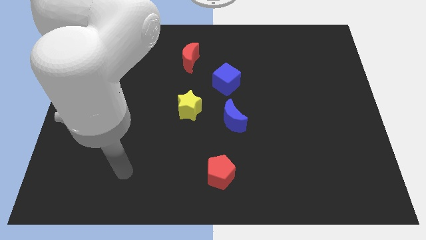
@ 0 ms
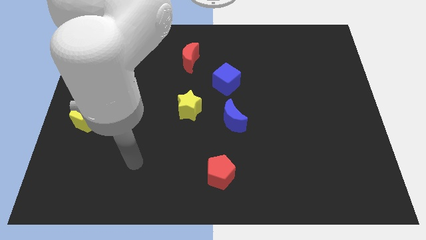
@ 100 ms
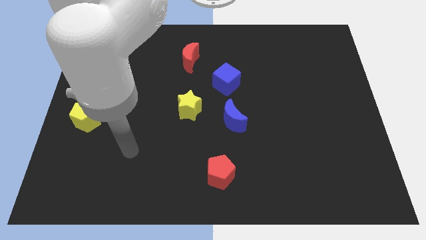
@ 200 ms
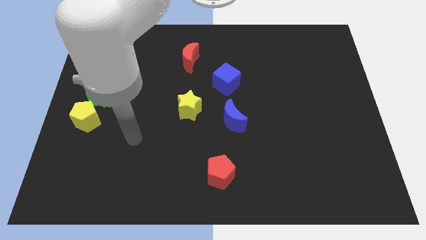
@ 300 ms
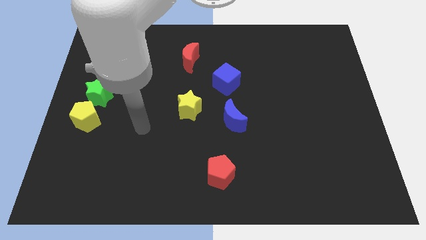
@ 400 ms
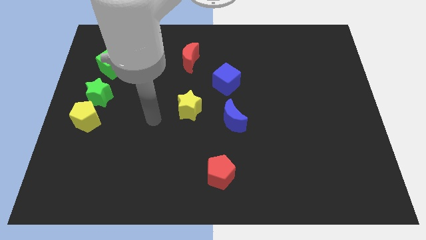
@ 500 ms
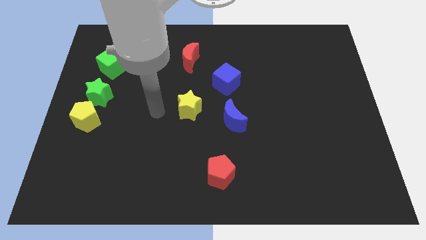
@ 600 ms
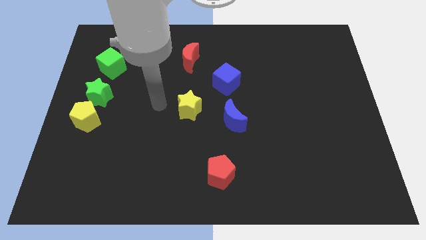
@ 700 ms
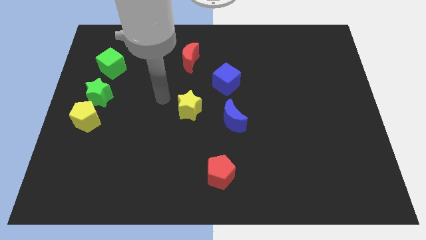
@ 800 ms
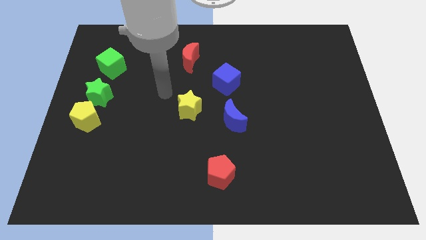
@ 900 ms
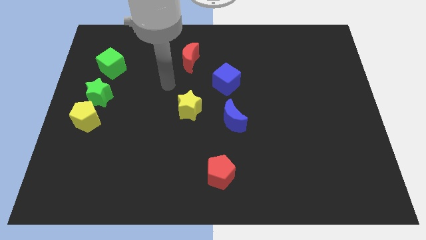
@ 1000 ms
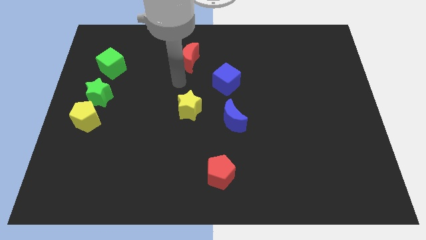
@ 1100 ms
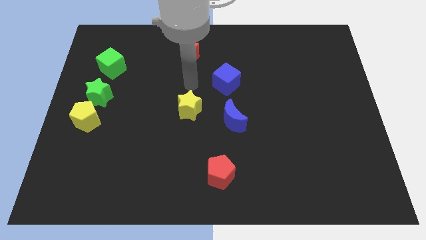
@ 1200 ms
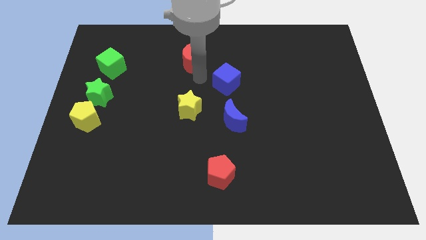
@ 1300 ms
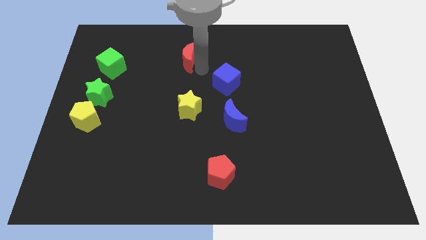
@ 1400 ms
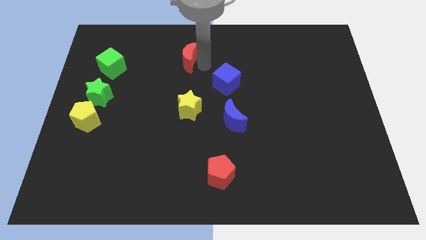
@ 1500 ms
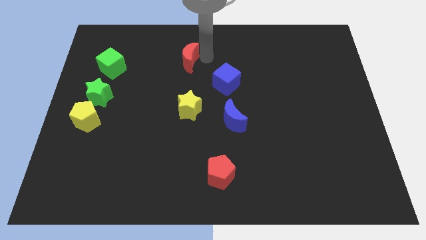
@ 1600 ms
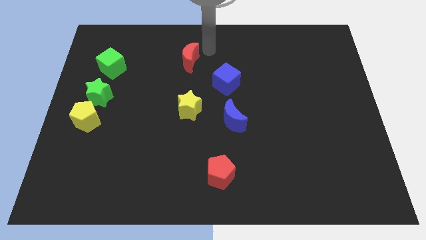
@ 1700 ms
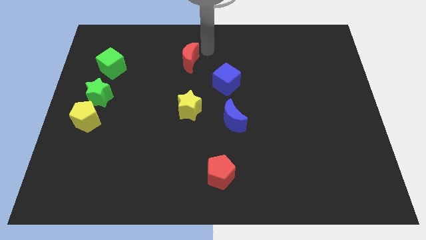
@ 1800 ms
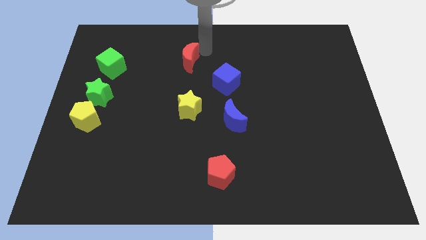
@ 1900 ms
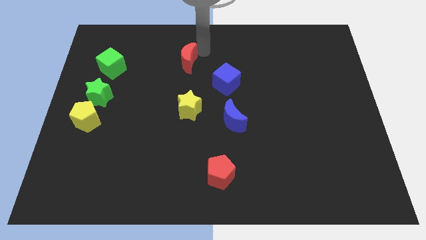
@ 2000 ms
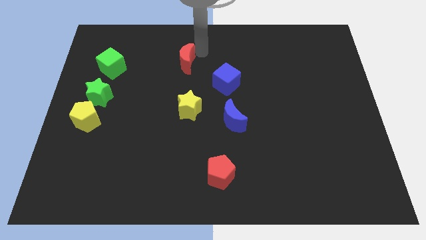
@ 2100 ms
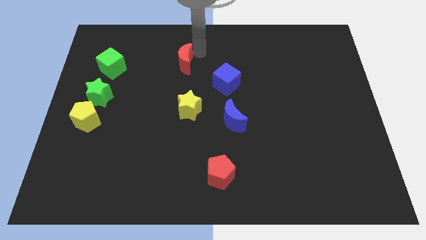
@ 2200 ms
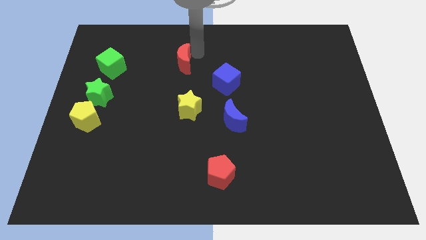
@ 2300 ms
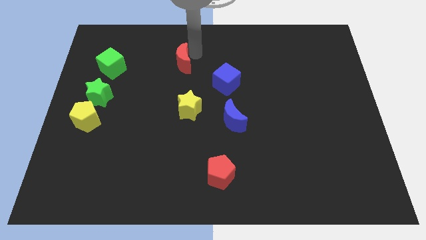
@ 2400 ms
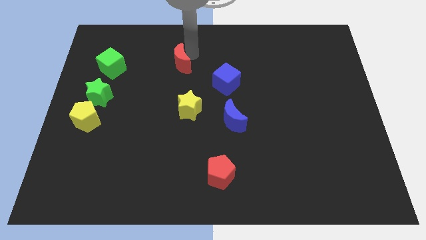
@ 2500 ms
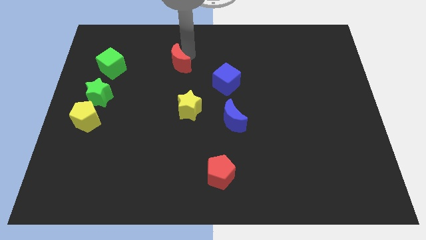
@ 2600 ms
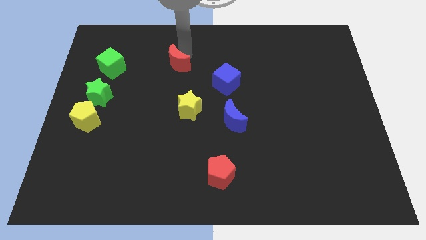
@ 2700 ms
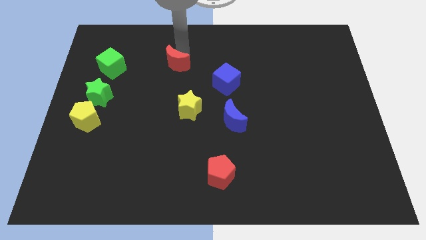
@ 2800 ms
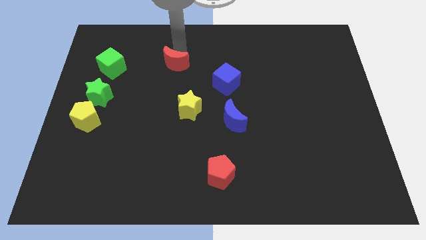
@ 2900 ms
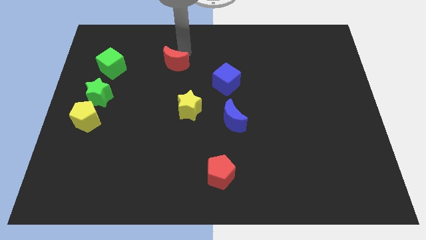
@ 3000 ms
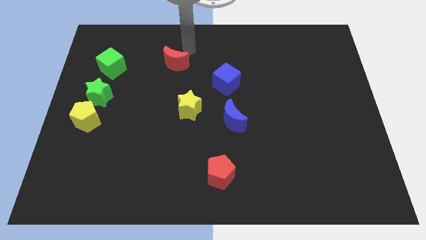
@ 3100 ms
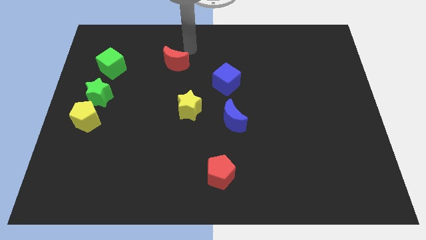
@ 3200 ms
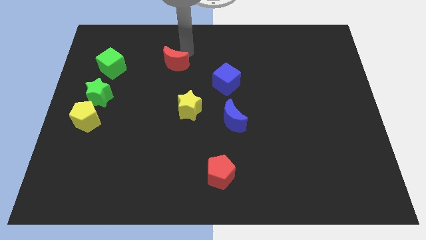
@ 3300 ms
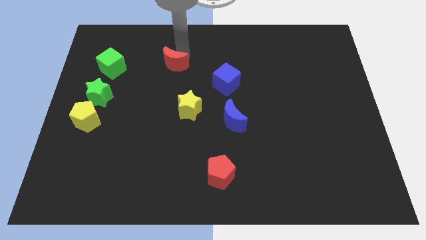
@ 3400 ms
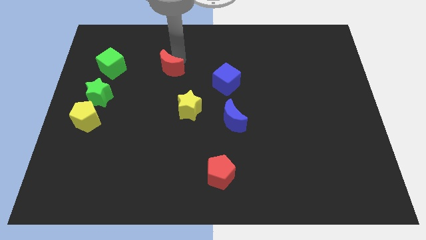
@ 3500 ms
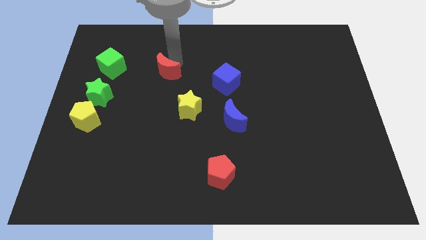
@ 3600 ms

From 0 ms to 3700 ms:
slide the red moon a little bit down and to the left

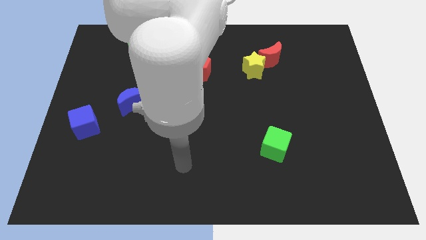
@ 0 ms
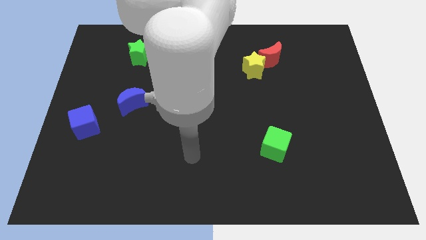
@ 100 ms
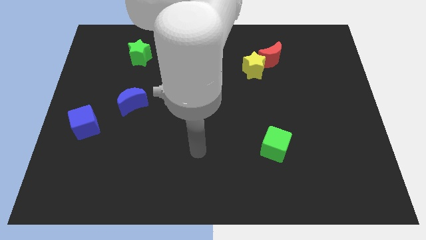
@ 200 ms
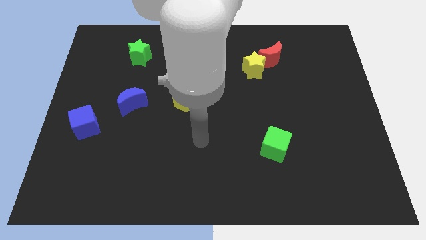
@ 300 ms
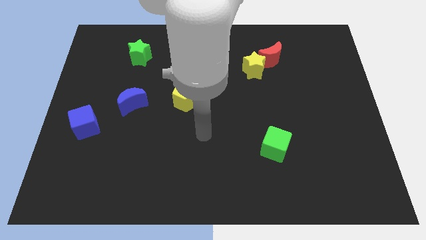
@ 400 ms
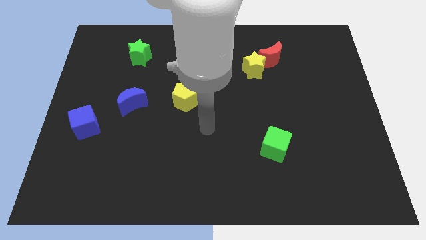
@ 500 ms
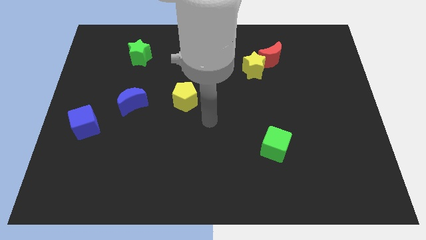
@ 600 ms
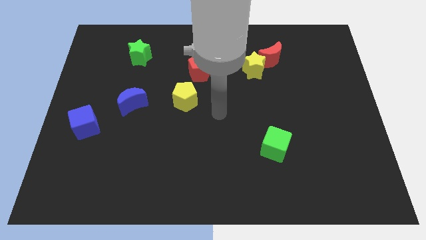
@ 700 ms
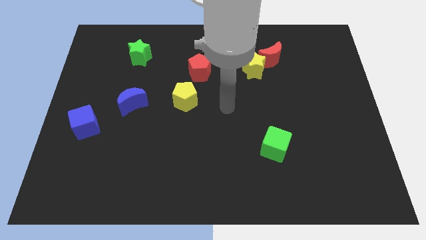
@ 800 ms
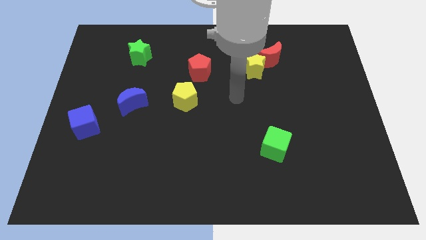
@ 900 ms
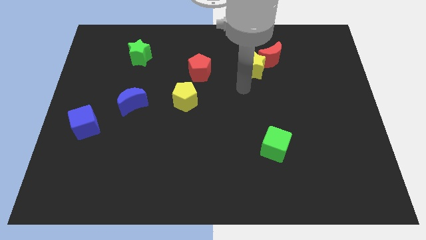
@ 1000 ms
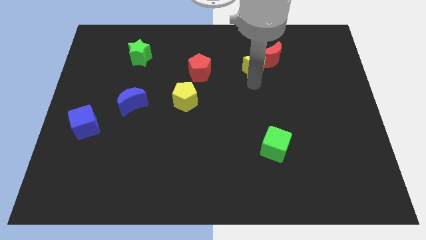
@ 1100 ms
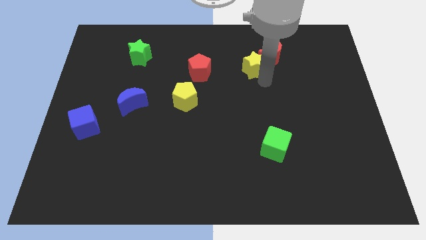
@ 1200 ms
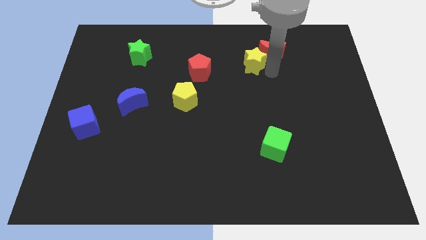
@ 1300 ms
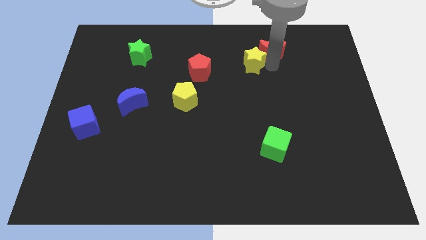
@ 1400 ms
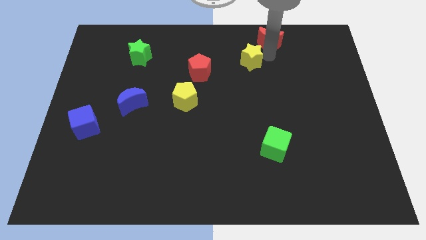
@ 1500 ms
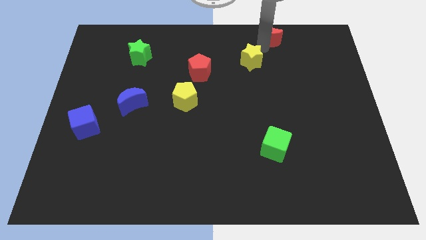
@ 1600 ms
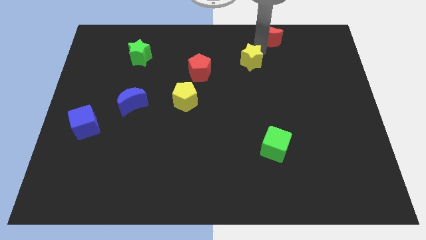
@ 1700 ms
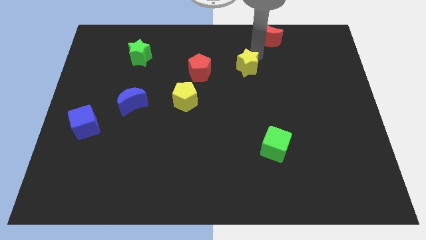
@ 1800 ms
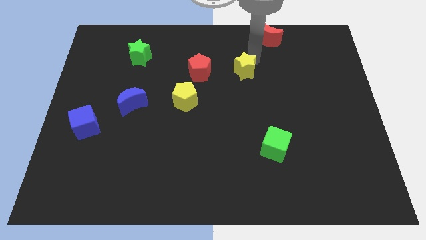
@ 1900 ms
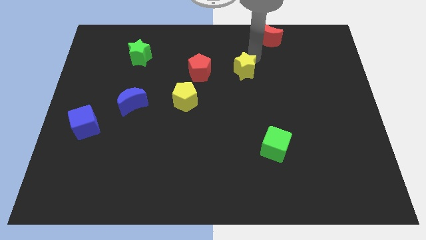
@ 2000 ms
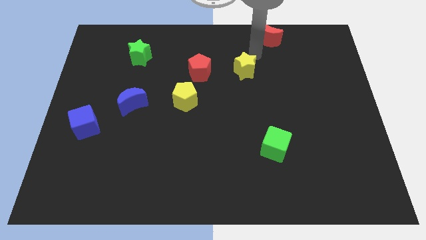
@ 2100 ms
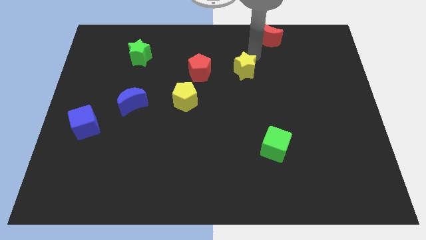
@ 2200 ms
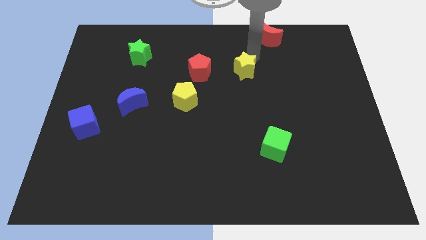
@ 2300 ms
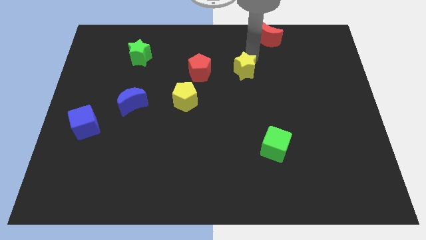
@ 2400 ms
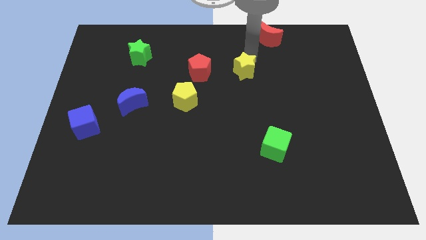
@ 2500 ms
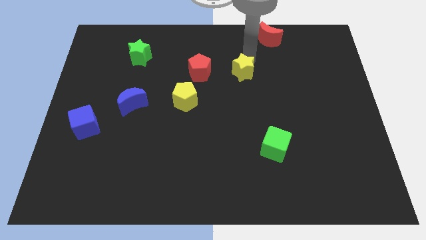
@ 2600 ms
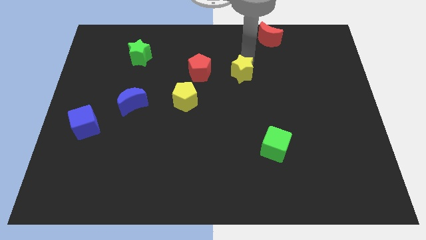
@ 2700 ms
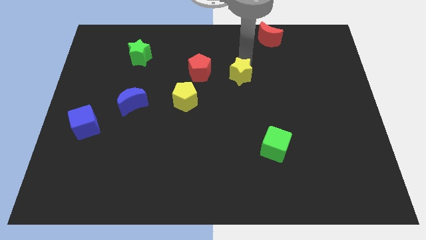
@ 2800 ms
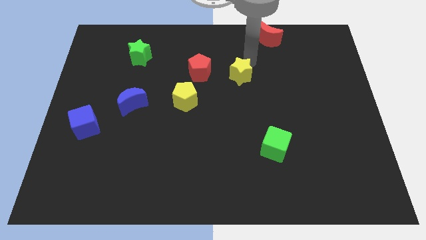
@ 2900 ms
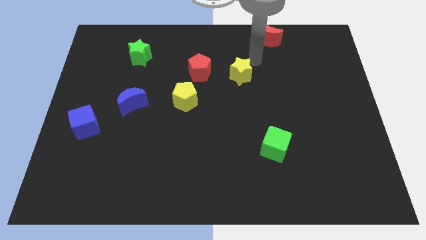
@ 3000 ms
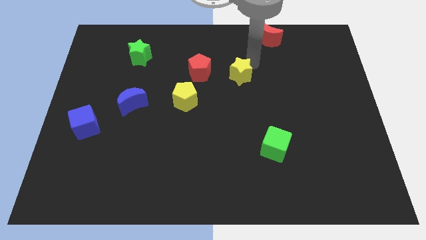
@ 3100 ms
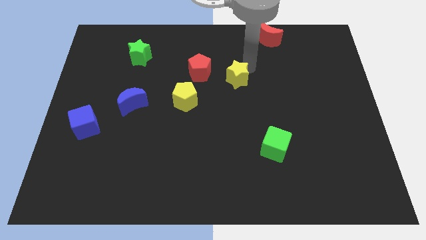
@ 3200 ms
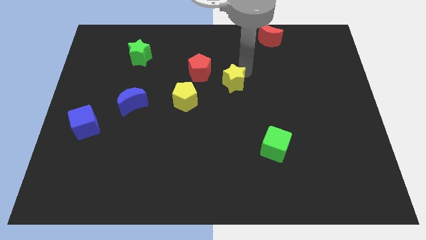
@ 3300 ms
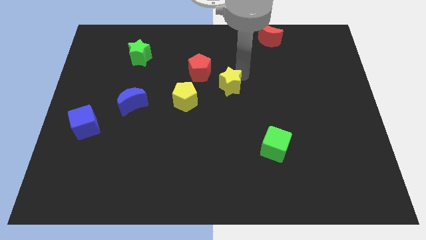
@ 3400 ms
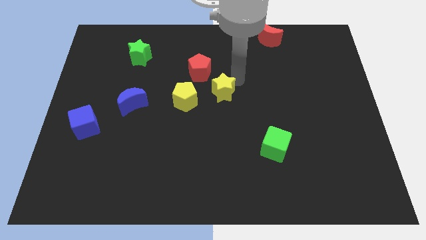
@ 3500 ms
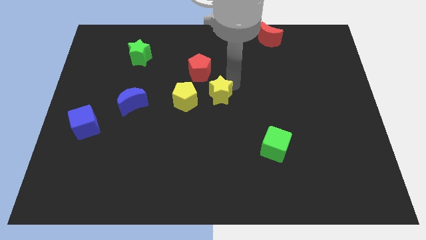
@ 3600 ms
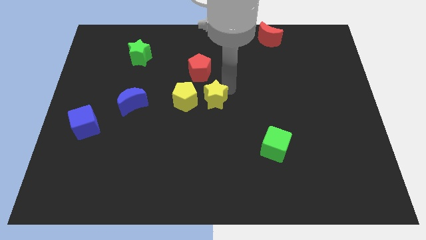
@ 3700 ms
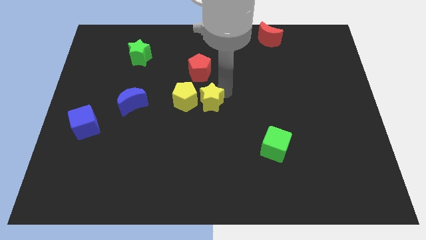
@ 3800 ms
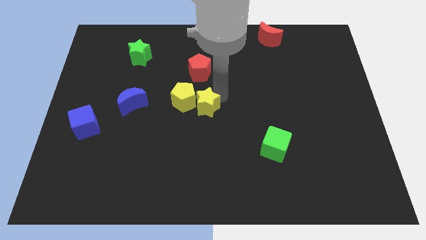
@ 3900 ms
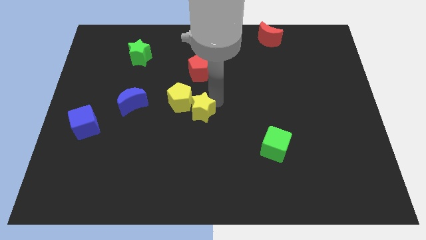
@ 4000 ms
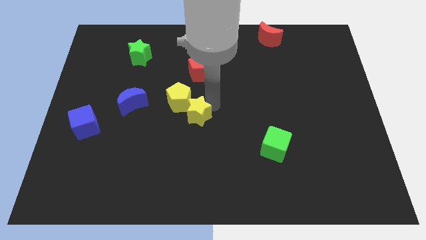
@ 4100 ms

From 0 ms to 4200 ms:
move the yellow star diagonally downwards and left
